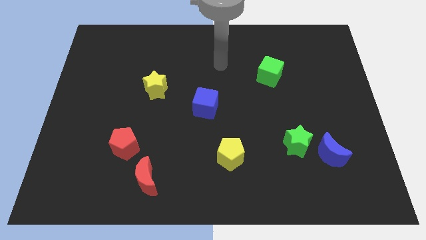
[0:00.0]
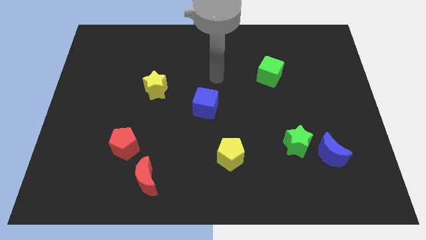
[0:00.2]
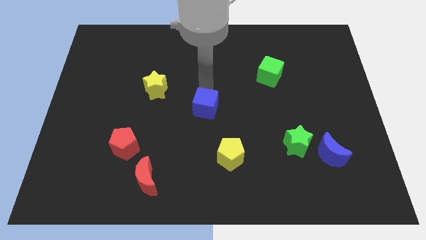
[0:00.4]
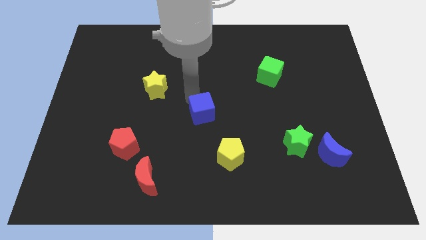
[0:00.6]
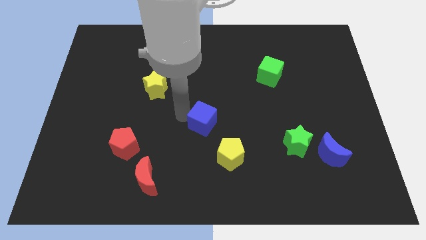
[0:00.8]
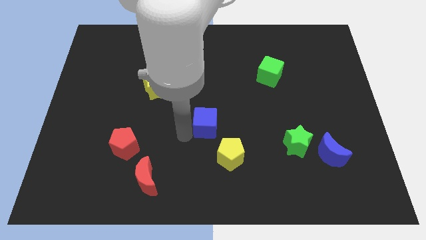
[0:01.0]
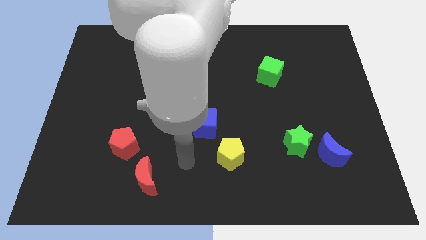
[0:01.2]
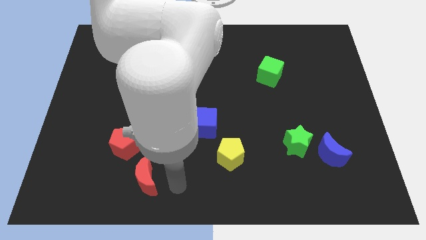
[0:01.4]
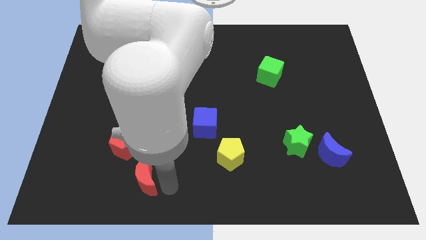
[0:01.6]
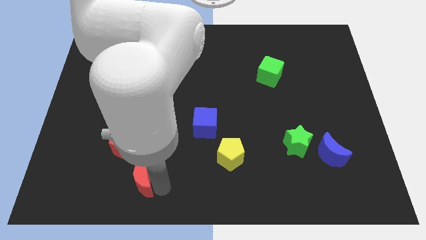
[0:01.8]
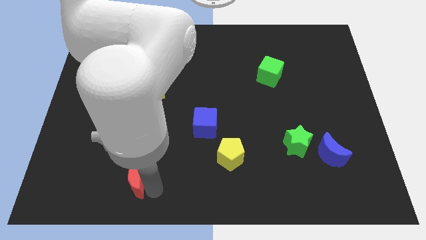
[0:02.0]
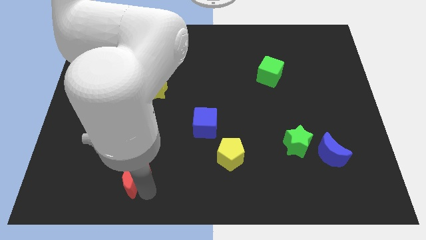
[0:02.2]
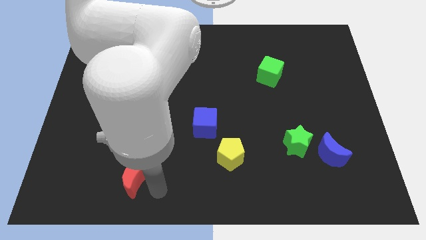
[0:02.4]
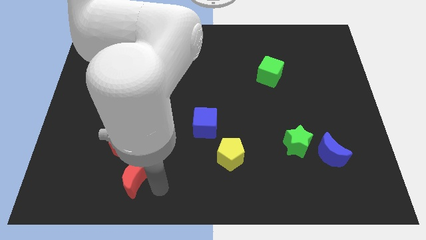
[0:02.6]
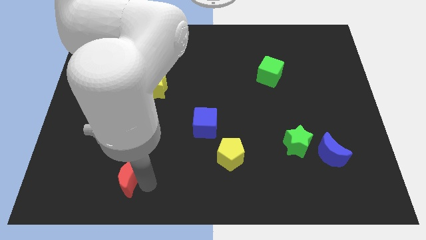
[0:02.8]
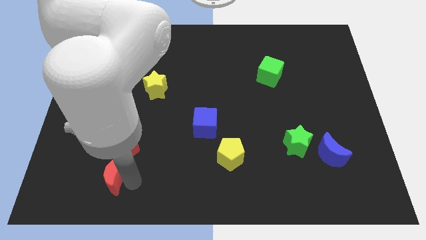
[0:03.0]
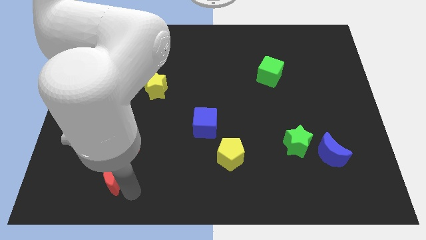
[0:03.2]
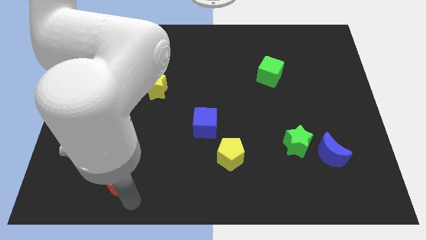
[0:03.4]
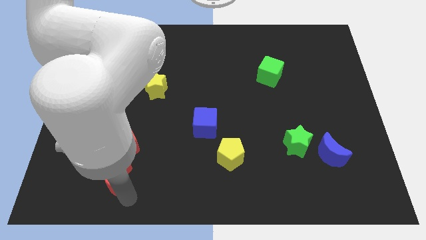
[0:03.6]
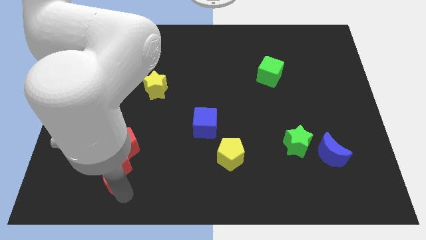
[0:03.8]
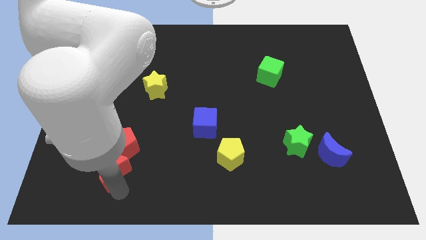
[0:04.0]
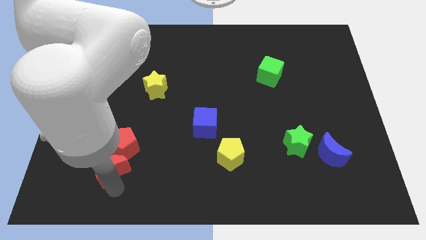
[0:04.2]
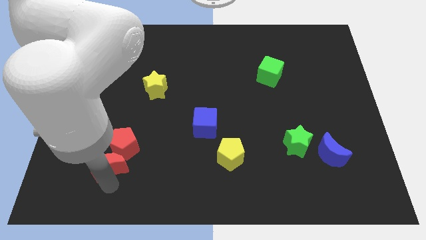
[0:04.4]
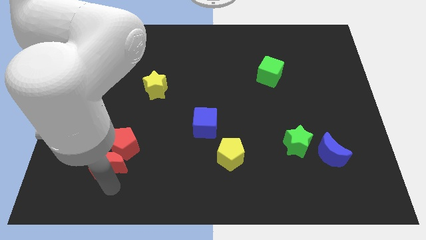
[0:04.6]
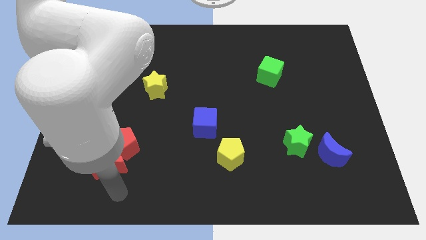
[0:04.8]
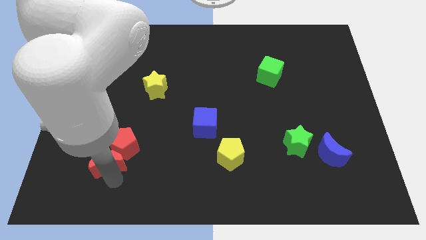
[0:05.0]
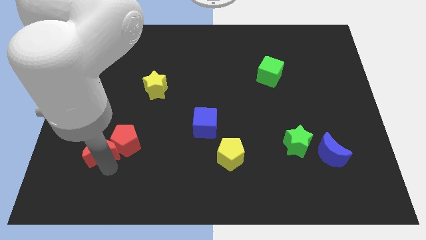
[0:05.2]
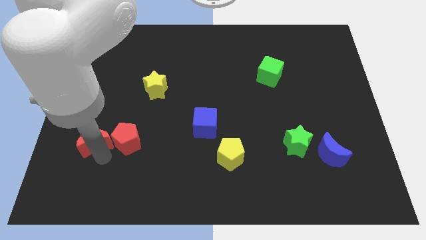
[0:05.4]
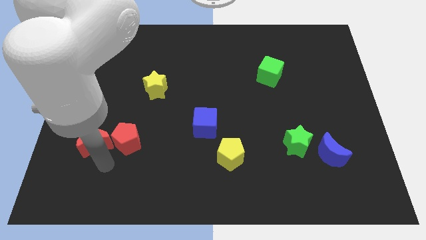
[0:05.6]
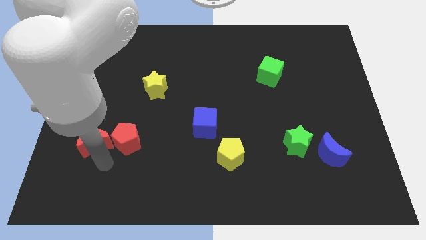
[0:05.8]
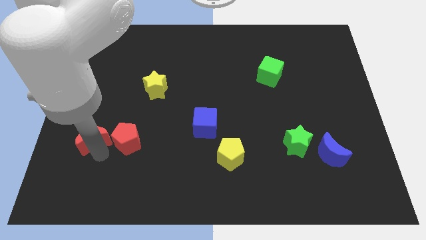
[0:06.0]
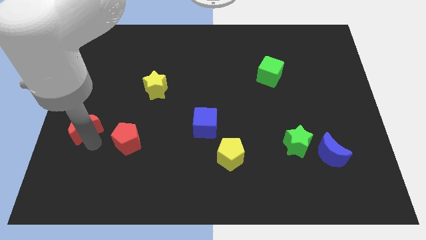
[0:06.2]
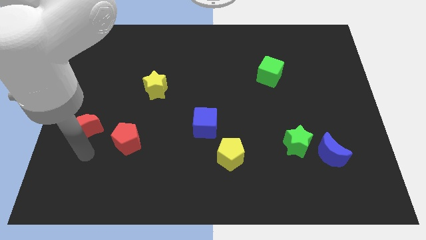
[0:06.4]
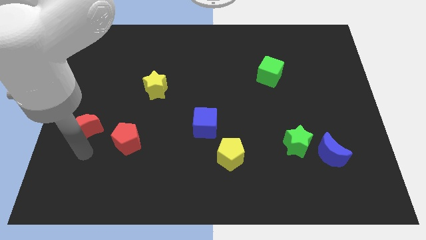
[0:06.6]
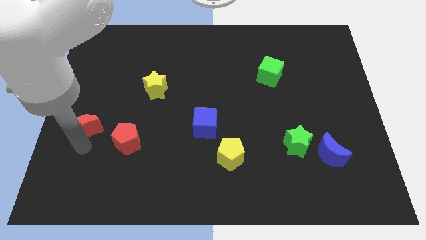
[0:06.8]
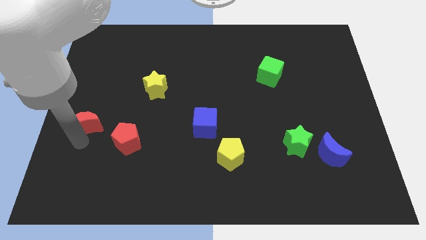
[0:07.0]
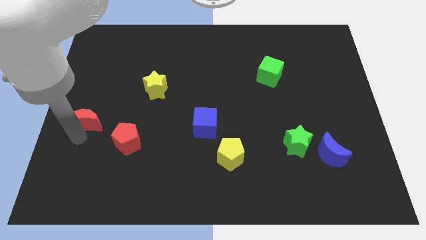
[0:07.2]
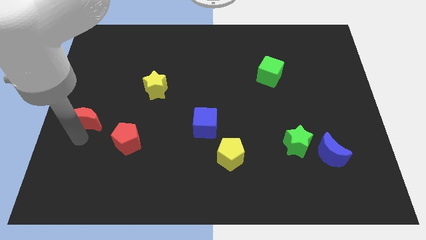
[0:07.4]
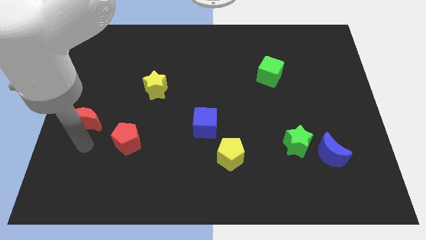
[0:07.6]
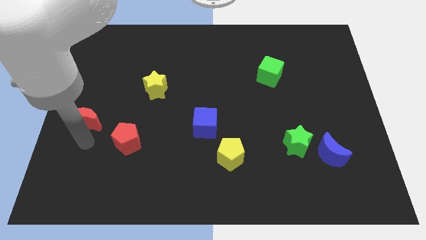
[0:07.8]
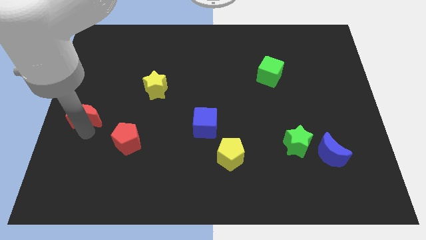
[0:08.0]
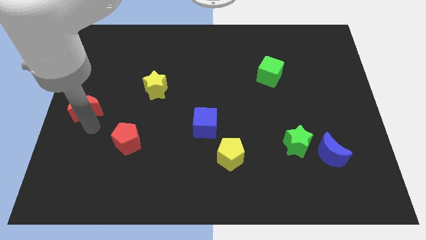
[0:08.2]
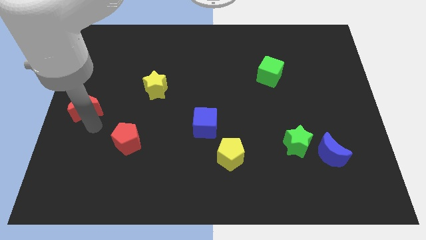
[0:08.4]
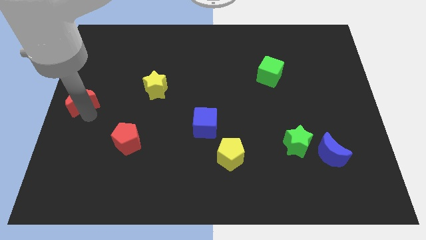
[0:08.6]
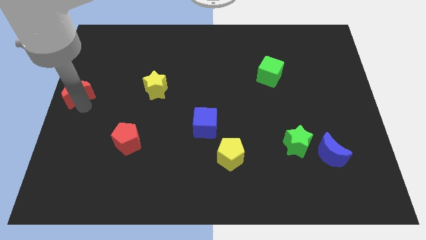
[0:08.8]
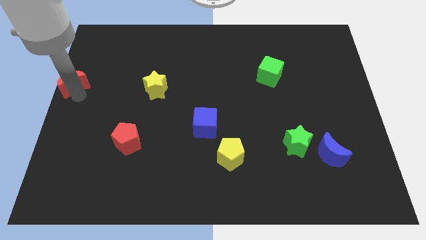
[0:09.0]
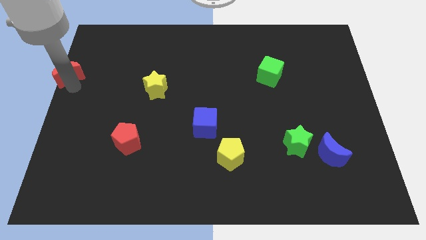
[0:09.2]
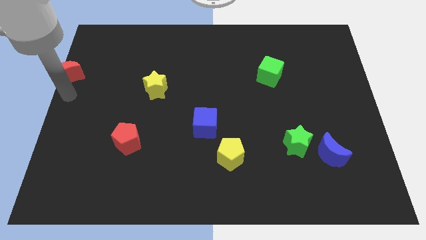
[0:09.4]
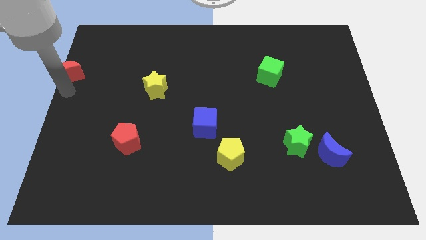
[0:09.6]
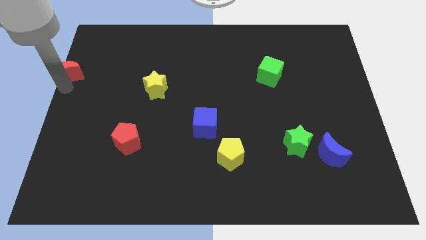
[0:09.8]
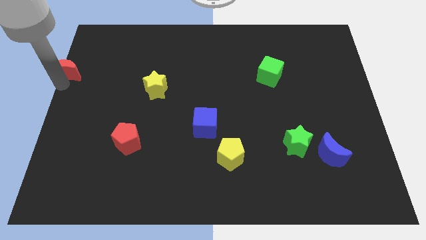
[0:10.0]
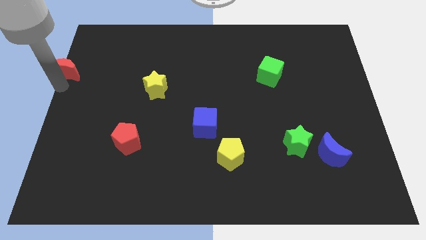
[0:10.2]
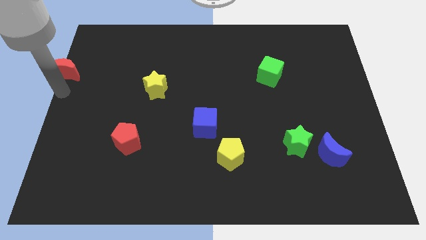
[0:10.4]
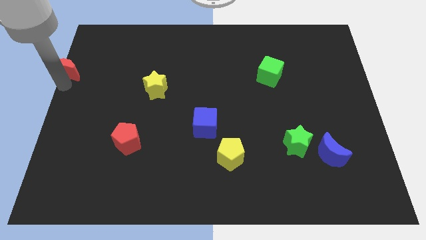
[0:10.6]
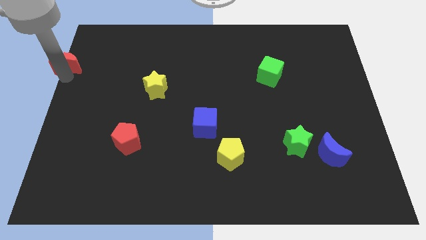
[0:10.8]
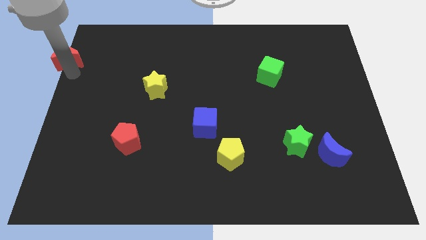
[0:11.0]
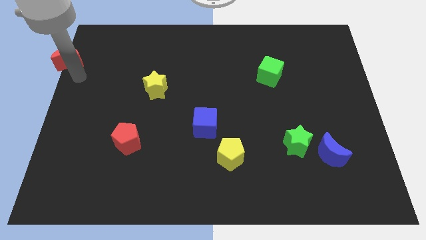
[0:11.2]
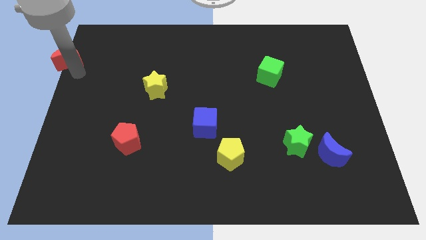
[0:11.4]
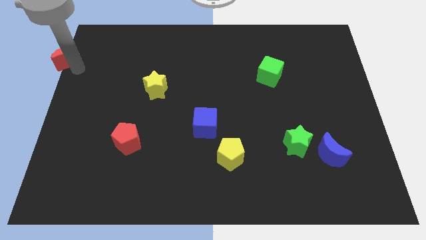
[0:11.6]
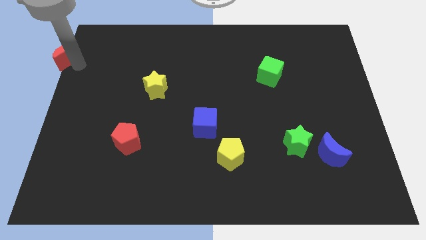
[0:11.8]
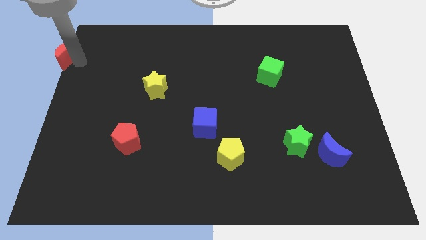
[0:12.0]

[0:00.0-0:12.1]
put the red moon to the top left corner
